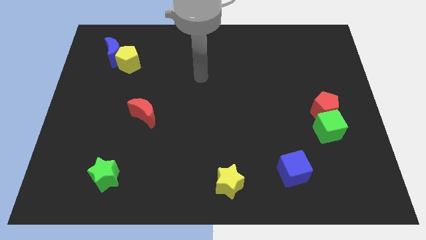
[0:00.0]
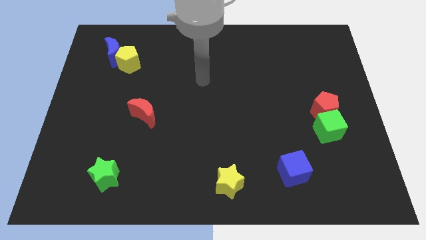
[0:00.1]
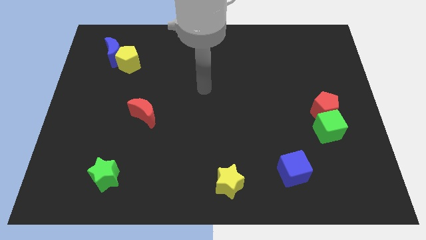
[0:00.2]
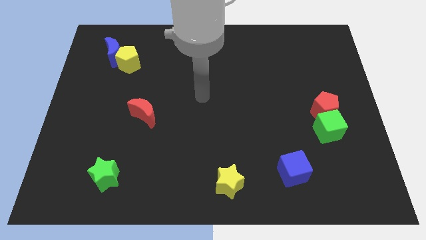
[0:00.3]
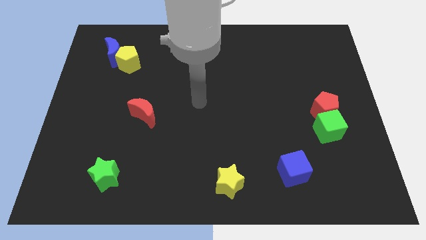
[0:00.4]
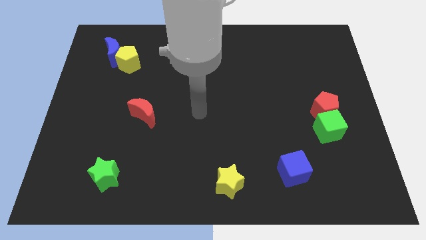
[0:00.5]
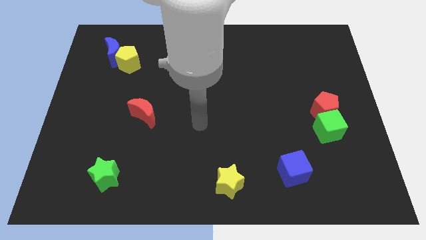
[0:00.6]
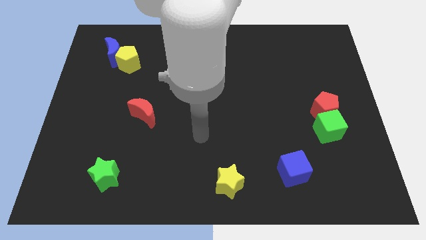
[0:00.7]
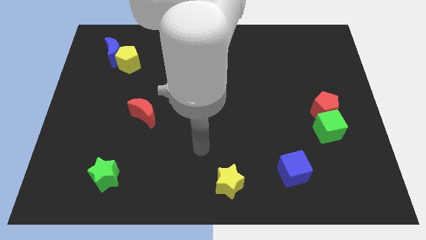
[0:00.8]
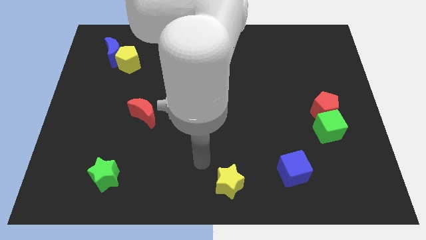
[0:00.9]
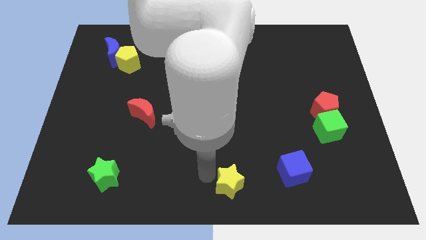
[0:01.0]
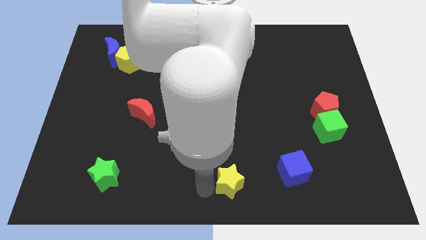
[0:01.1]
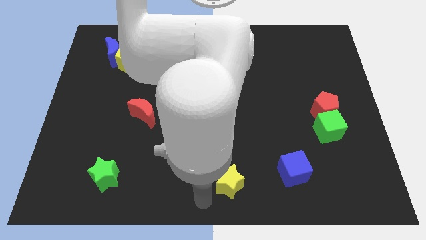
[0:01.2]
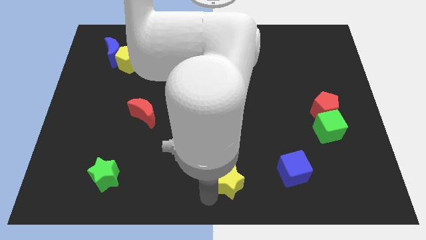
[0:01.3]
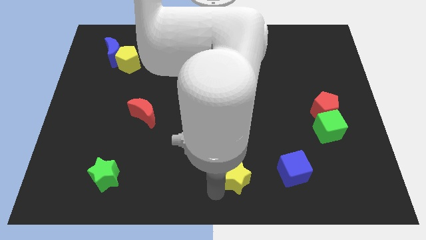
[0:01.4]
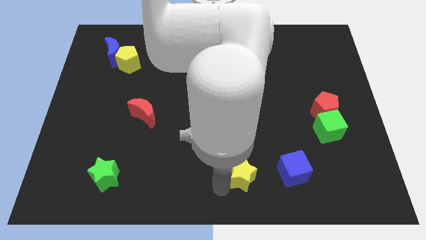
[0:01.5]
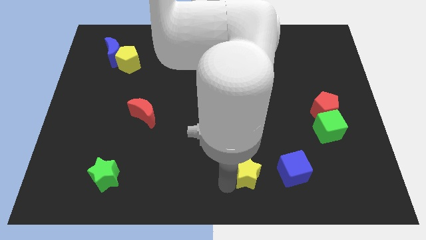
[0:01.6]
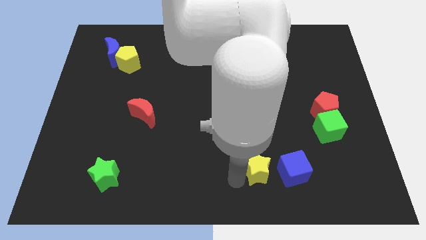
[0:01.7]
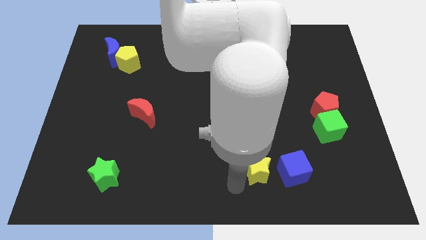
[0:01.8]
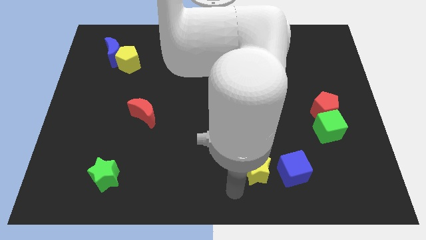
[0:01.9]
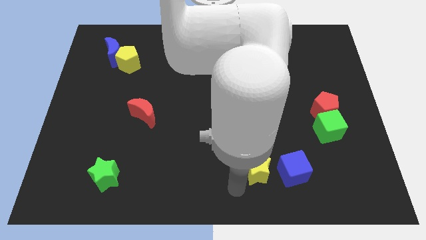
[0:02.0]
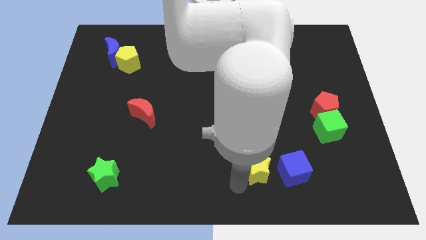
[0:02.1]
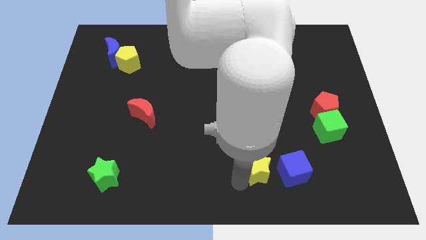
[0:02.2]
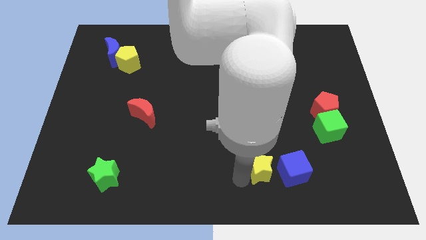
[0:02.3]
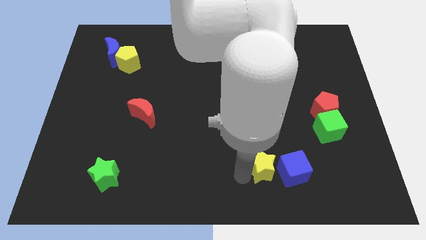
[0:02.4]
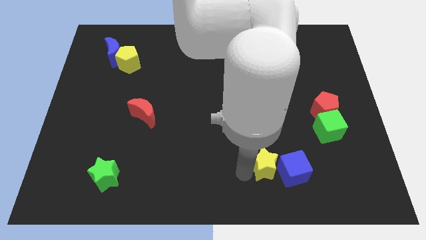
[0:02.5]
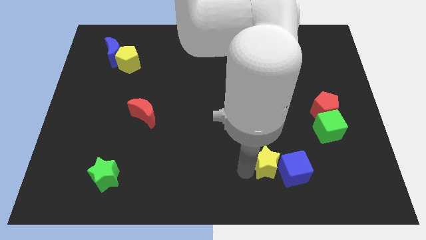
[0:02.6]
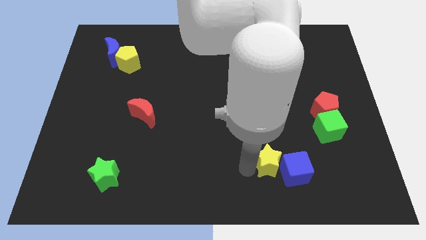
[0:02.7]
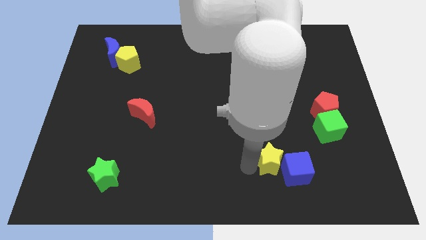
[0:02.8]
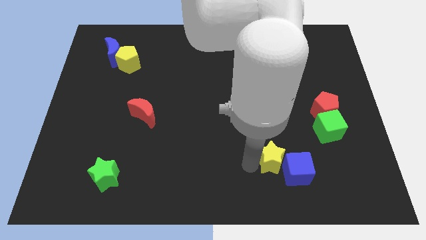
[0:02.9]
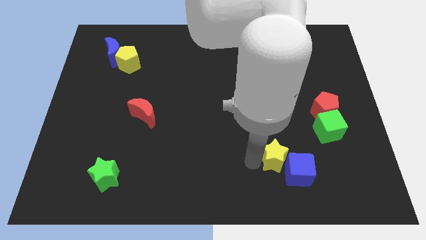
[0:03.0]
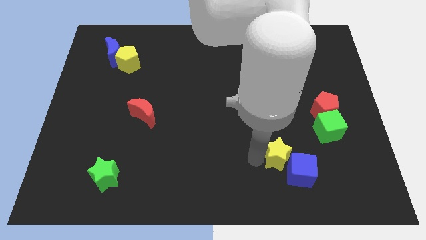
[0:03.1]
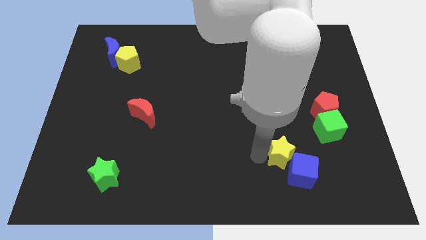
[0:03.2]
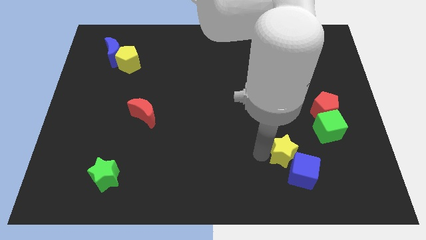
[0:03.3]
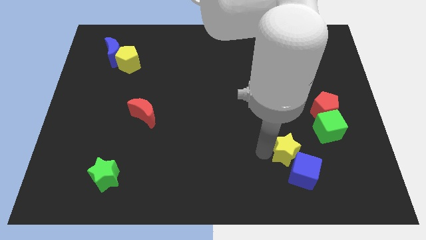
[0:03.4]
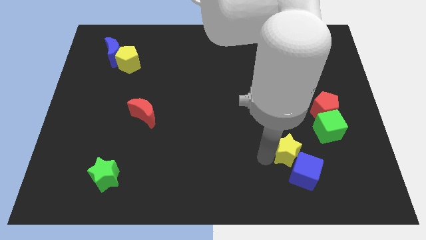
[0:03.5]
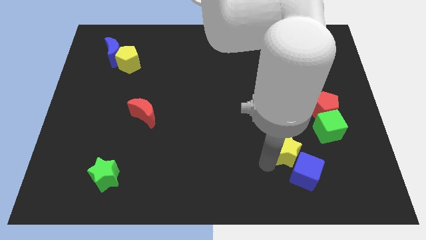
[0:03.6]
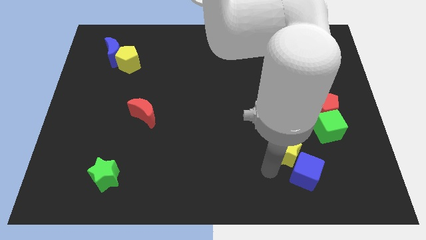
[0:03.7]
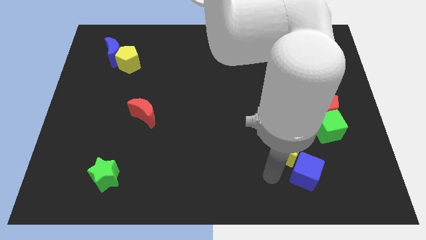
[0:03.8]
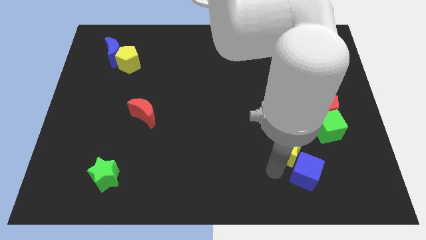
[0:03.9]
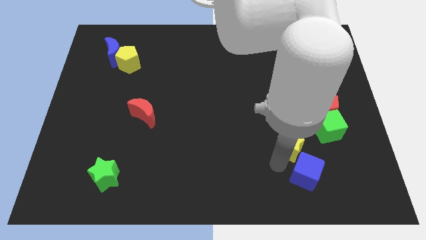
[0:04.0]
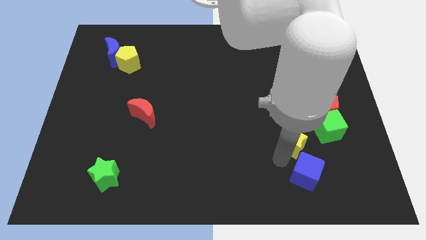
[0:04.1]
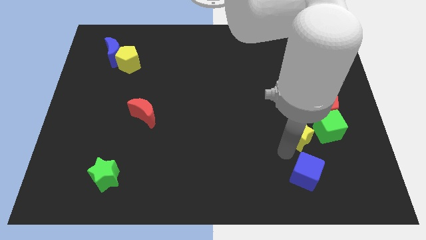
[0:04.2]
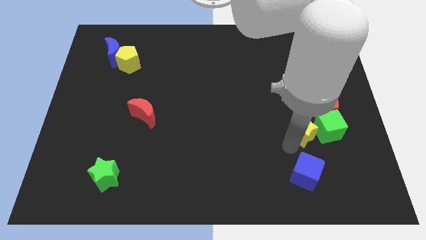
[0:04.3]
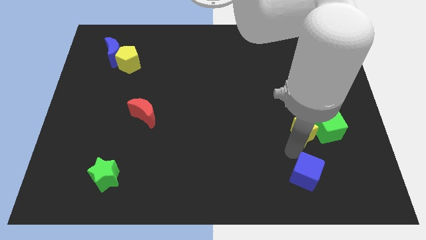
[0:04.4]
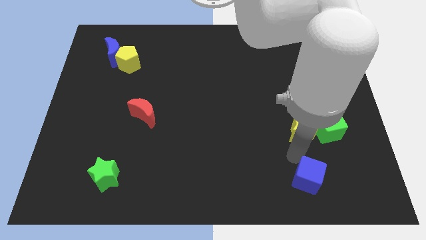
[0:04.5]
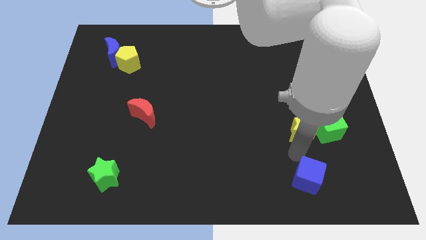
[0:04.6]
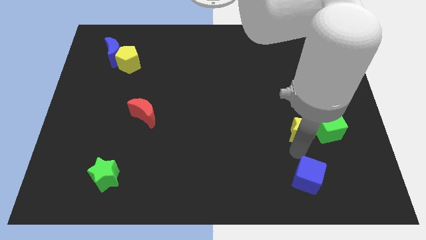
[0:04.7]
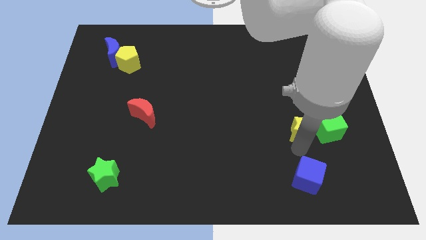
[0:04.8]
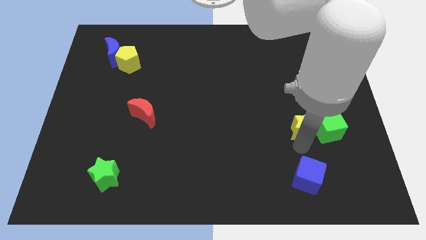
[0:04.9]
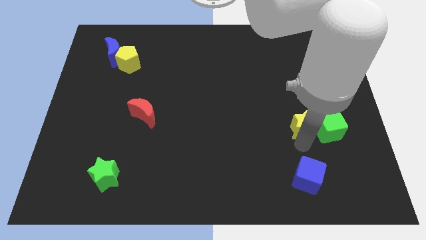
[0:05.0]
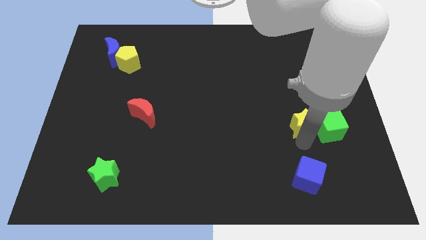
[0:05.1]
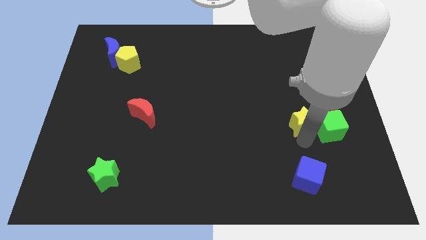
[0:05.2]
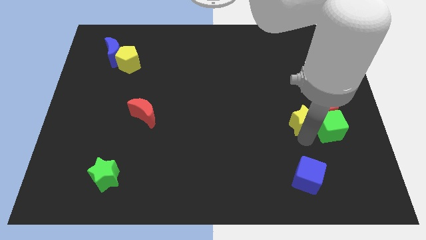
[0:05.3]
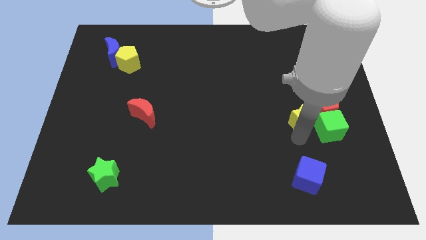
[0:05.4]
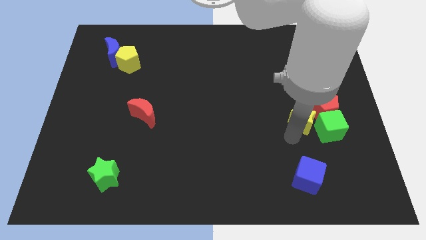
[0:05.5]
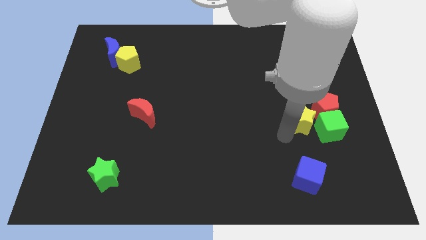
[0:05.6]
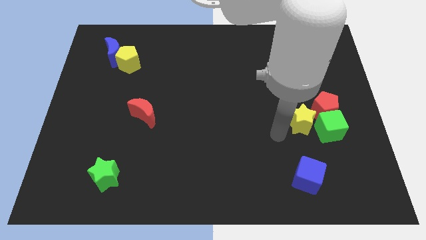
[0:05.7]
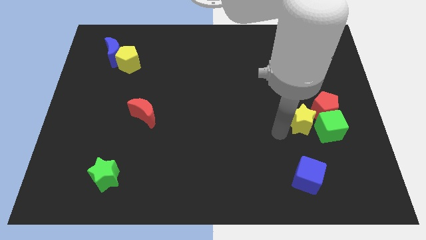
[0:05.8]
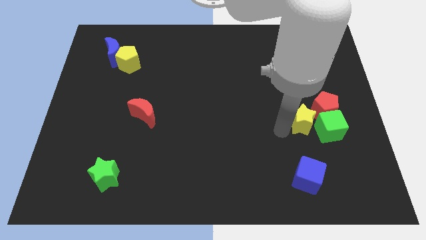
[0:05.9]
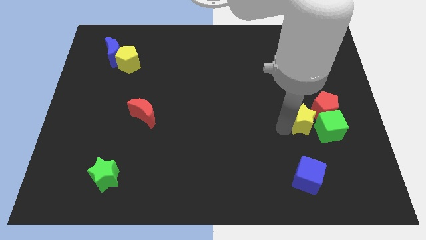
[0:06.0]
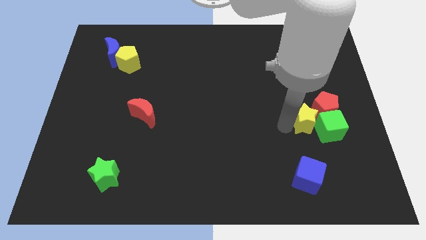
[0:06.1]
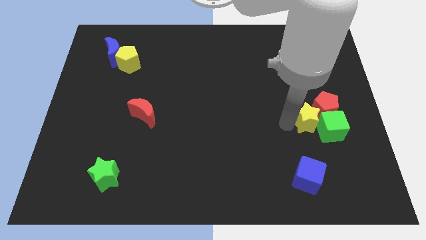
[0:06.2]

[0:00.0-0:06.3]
slide the yellow star close to the red pentagon

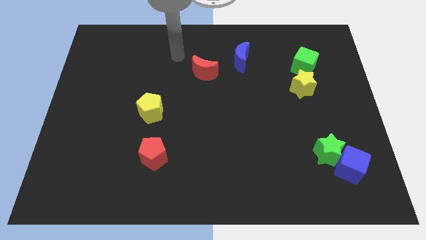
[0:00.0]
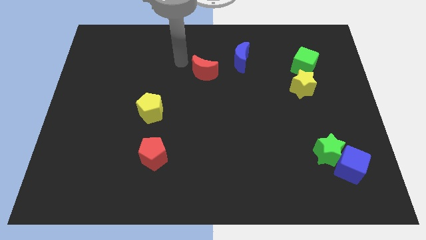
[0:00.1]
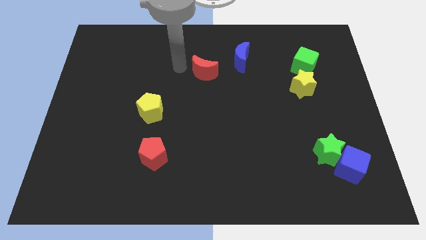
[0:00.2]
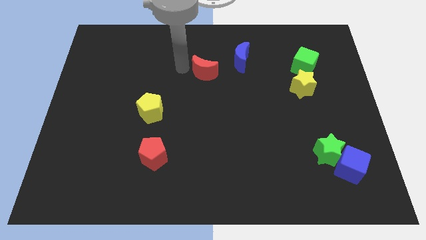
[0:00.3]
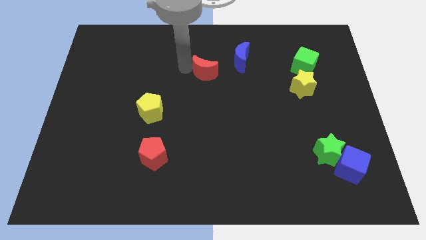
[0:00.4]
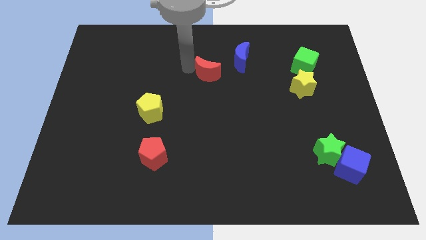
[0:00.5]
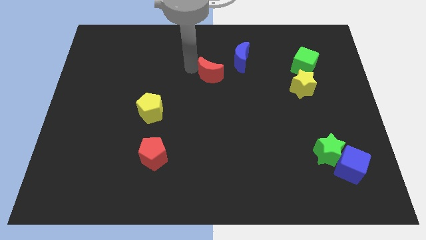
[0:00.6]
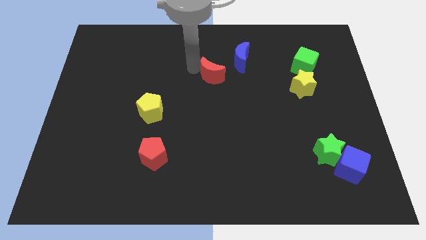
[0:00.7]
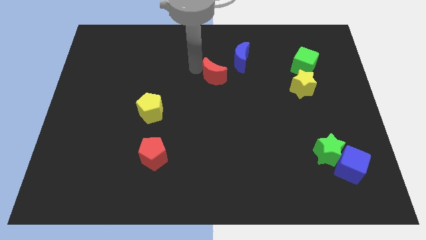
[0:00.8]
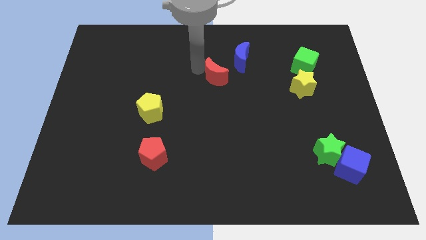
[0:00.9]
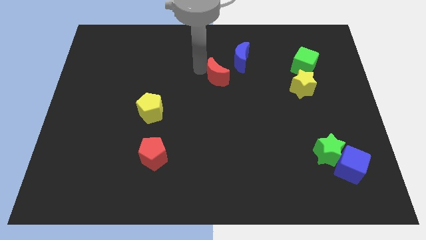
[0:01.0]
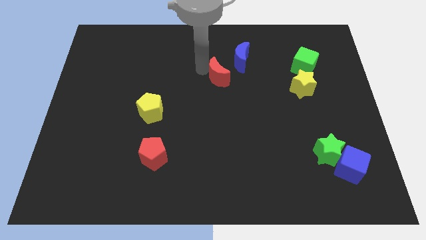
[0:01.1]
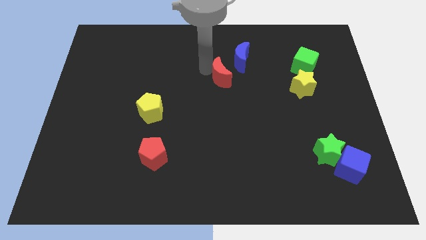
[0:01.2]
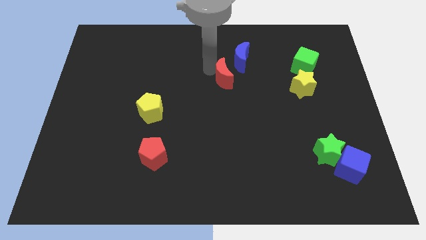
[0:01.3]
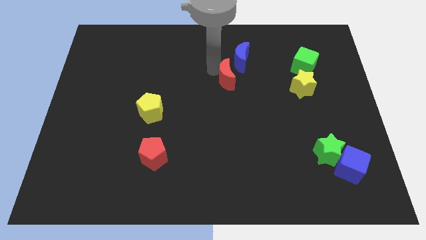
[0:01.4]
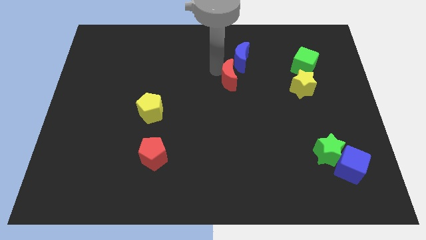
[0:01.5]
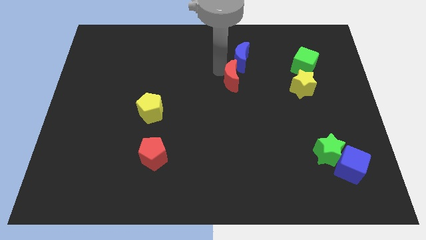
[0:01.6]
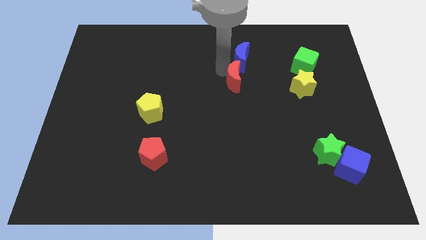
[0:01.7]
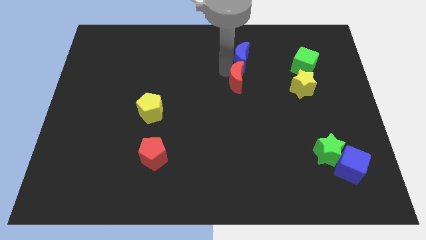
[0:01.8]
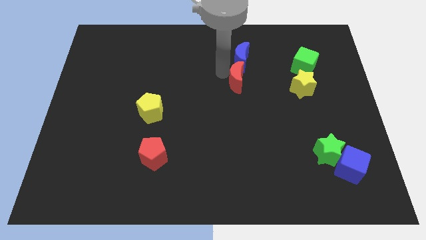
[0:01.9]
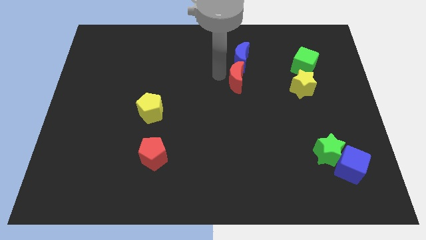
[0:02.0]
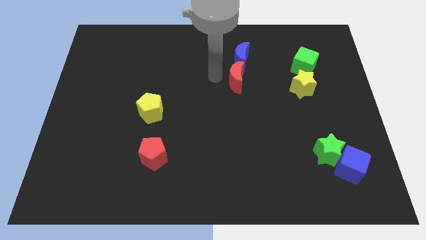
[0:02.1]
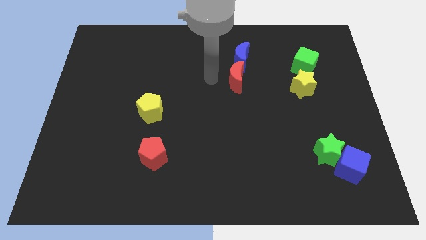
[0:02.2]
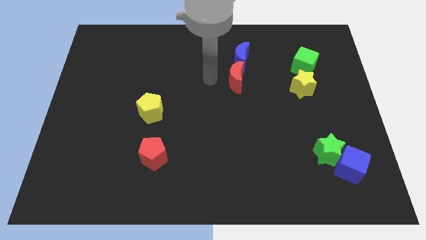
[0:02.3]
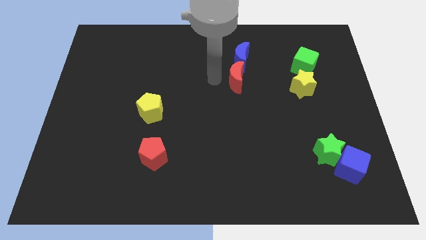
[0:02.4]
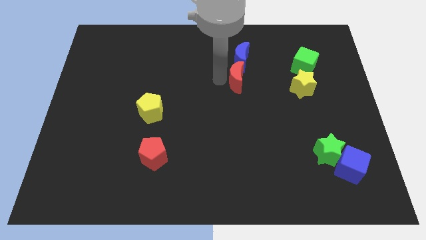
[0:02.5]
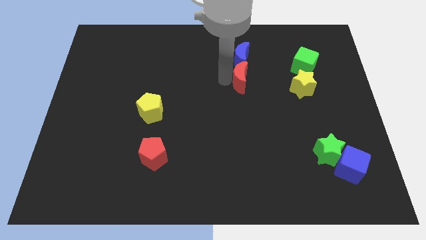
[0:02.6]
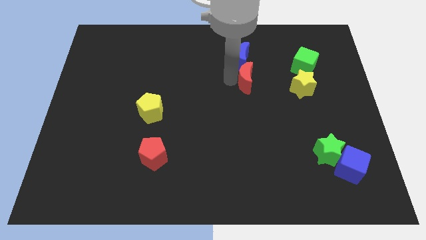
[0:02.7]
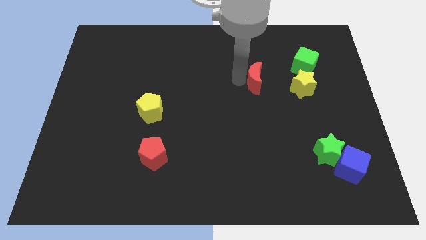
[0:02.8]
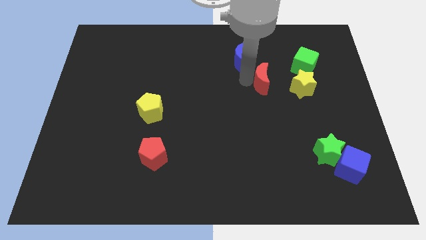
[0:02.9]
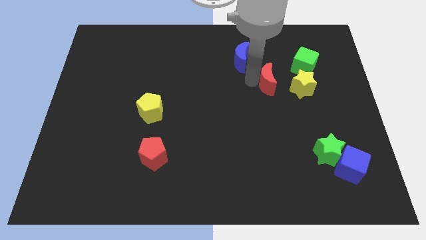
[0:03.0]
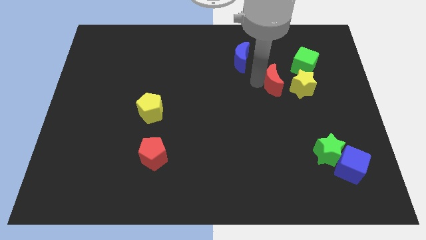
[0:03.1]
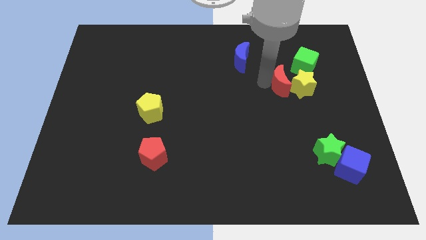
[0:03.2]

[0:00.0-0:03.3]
slide the red moon close to the yellow star
